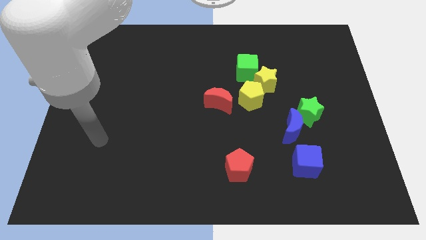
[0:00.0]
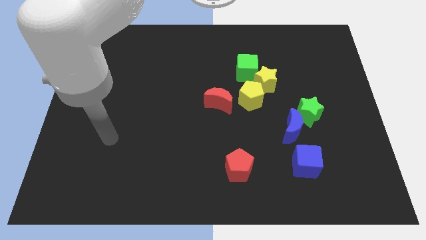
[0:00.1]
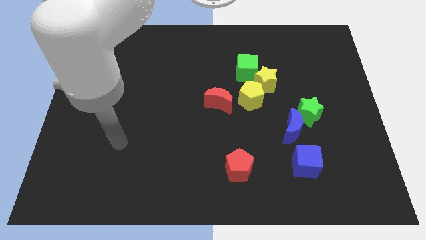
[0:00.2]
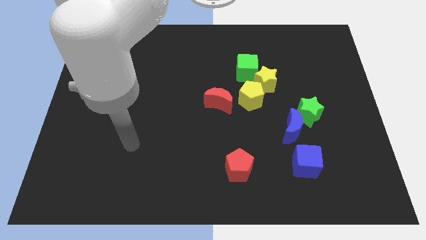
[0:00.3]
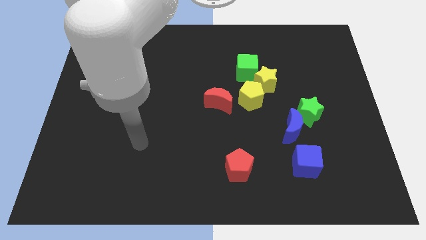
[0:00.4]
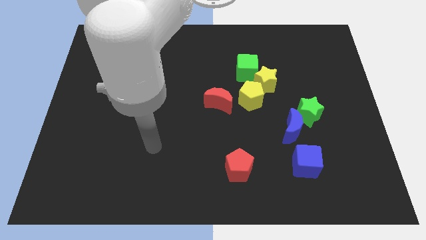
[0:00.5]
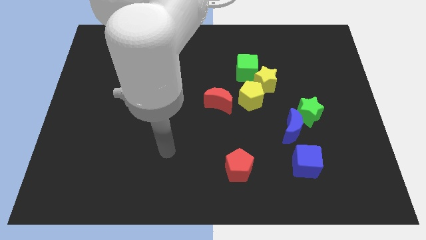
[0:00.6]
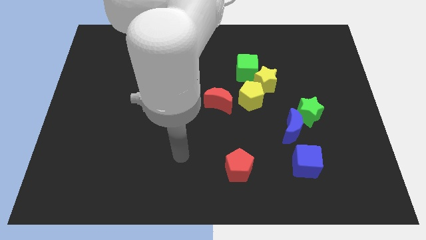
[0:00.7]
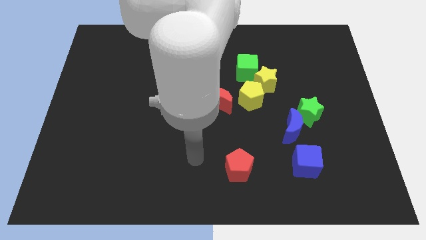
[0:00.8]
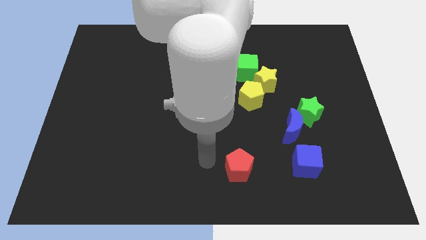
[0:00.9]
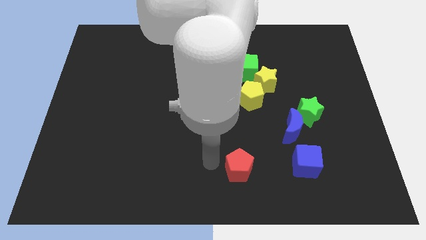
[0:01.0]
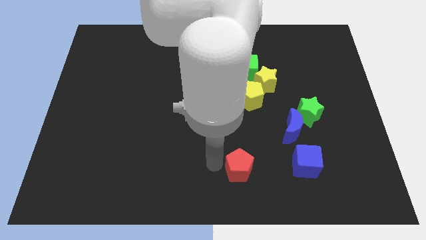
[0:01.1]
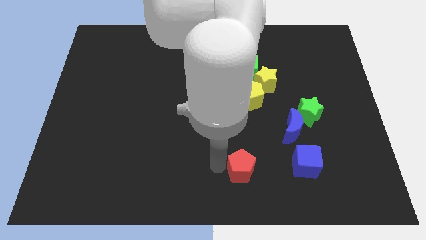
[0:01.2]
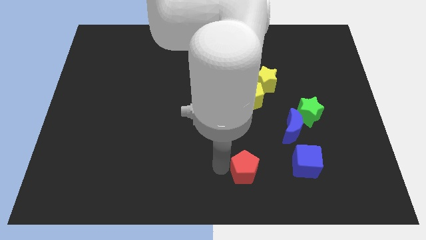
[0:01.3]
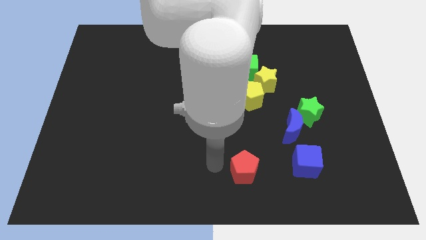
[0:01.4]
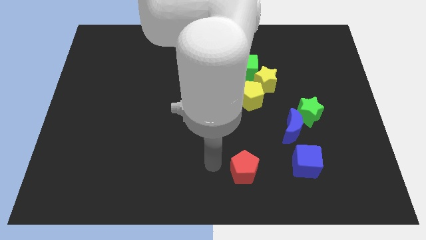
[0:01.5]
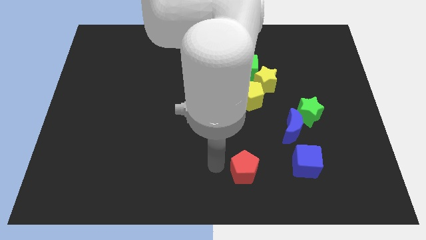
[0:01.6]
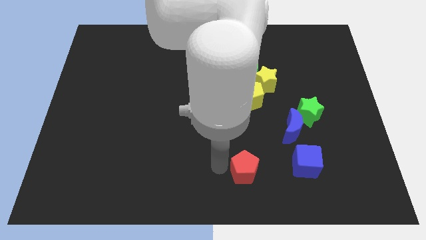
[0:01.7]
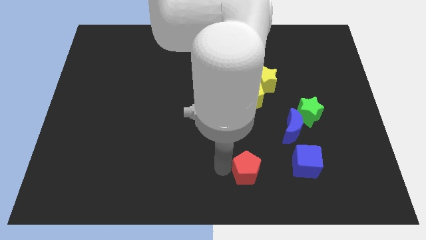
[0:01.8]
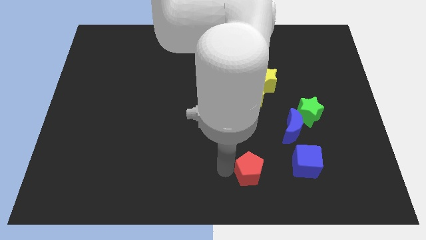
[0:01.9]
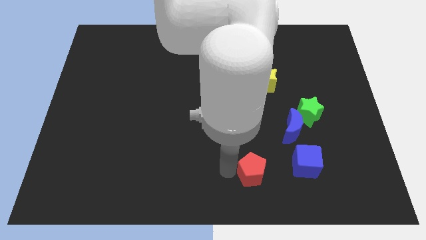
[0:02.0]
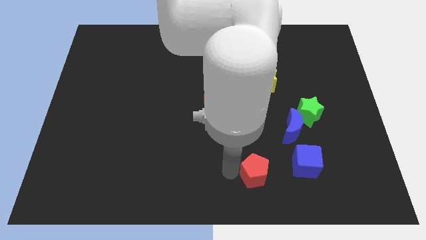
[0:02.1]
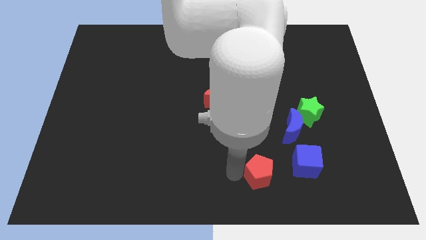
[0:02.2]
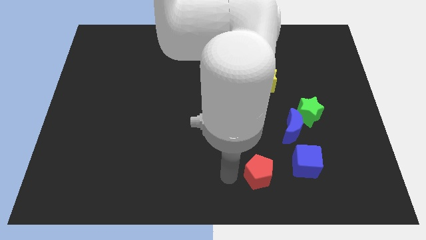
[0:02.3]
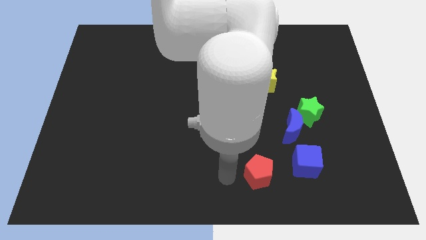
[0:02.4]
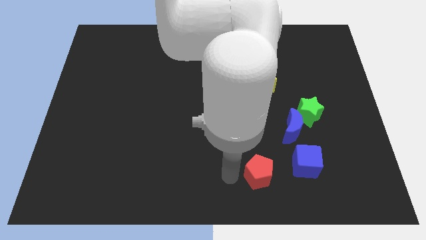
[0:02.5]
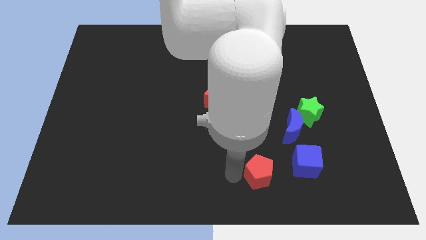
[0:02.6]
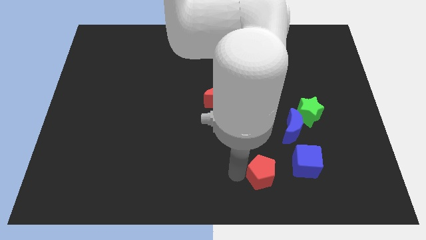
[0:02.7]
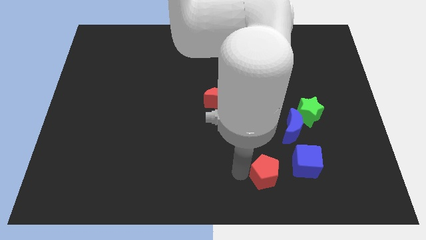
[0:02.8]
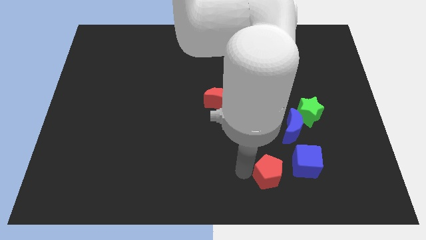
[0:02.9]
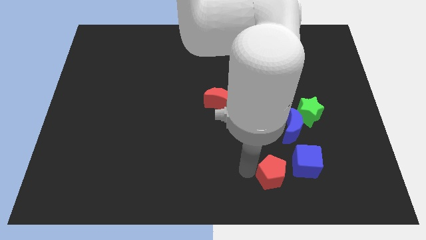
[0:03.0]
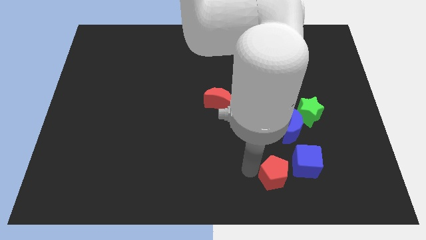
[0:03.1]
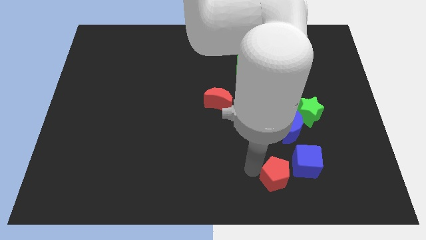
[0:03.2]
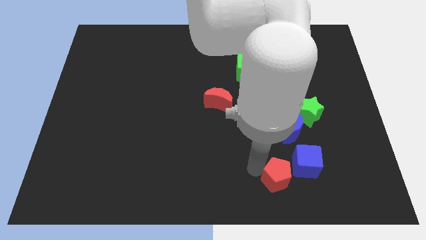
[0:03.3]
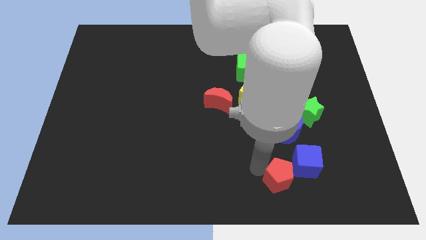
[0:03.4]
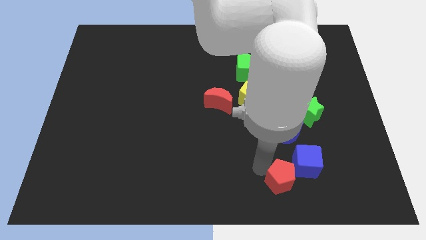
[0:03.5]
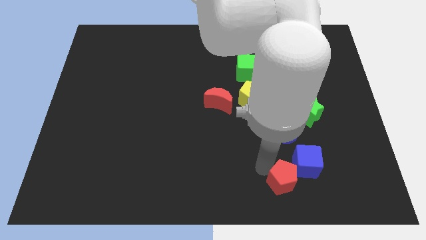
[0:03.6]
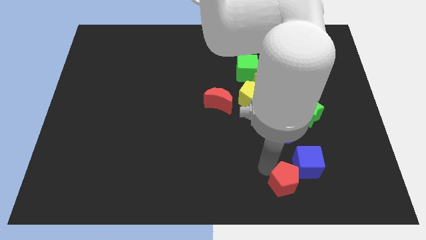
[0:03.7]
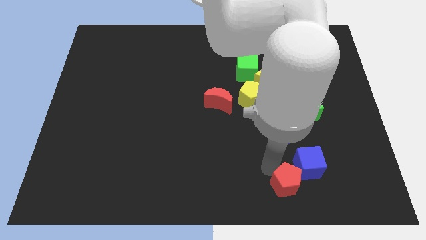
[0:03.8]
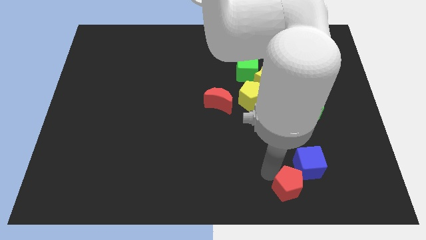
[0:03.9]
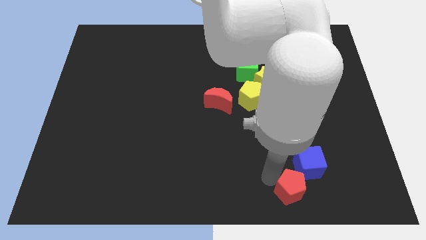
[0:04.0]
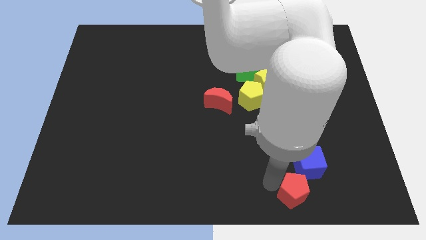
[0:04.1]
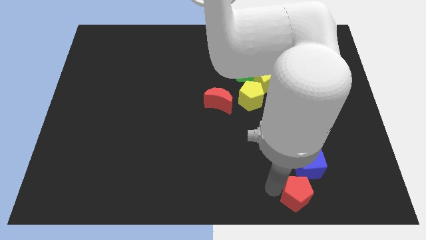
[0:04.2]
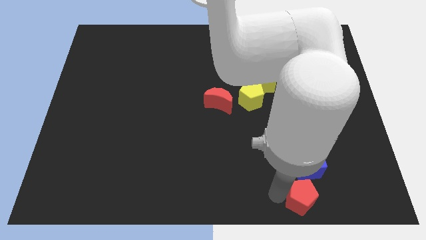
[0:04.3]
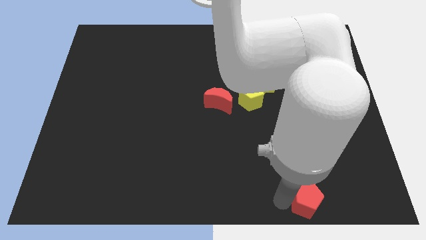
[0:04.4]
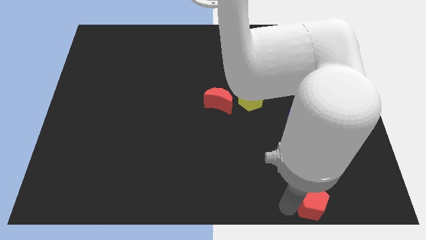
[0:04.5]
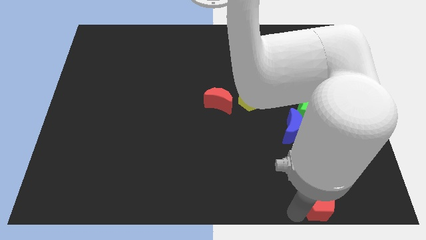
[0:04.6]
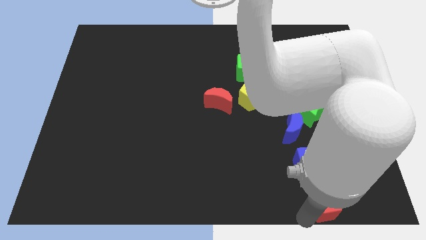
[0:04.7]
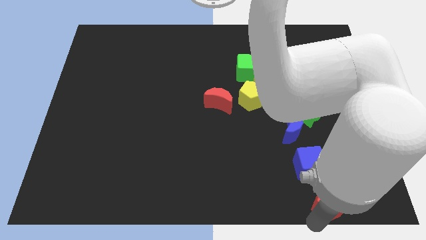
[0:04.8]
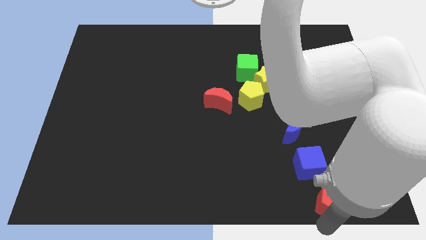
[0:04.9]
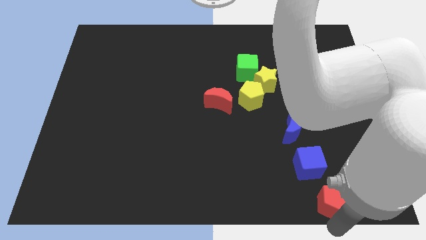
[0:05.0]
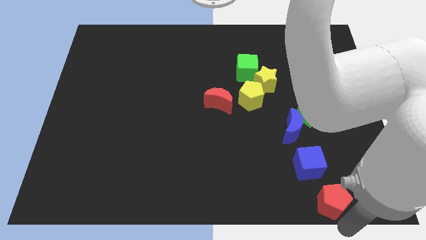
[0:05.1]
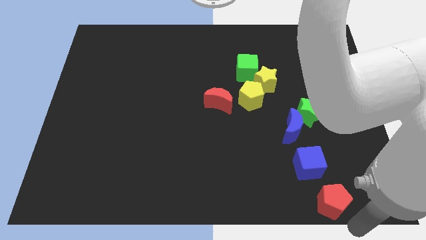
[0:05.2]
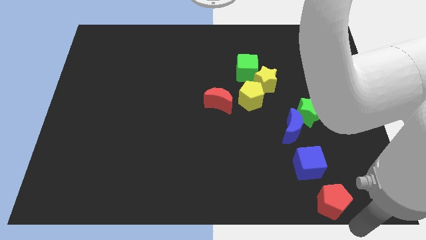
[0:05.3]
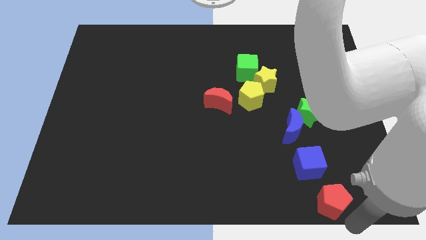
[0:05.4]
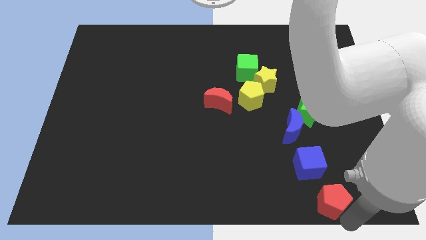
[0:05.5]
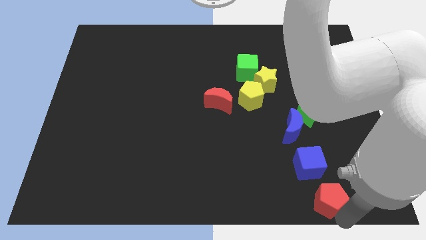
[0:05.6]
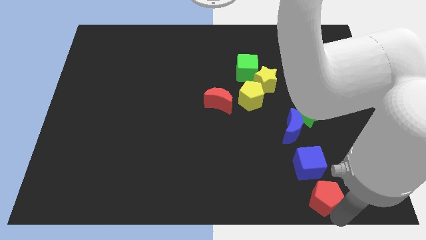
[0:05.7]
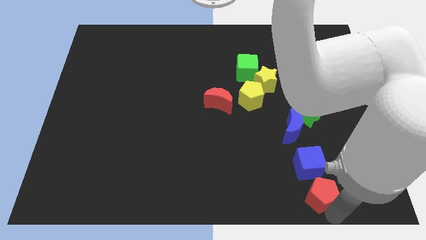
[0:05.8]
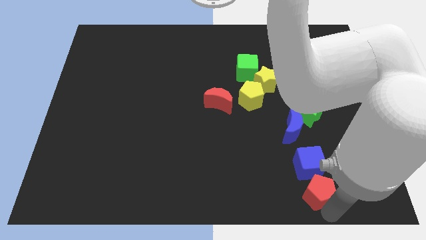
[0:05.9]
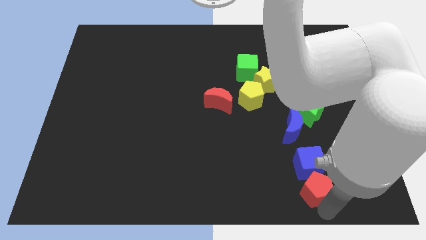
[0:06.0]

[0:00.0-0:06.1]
put the red pentagon next to the blue cube
